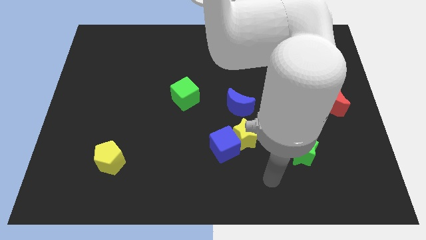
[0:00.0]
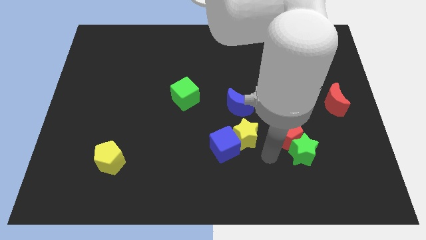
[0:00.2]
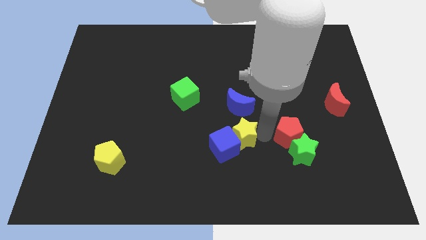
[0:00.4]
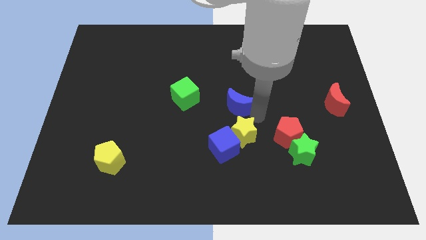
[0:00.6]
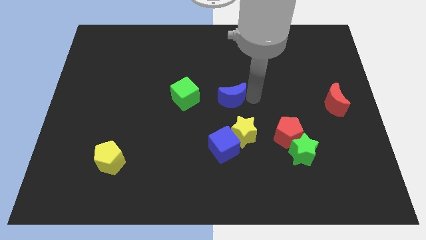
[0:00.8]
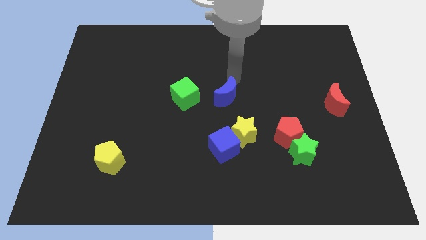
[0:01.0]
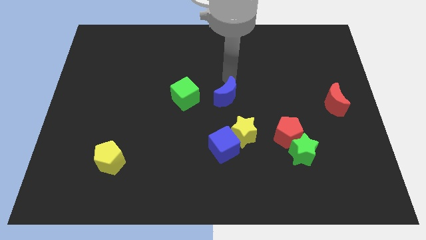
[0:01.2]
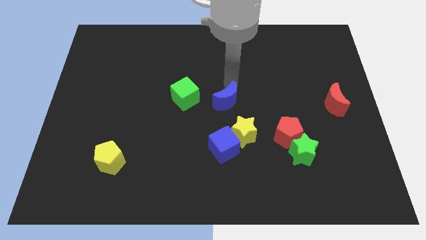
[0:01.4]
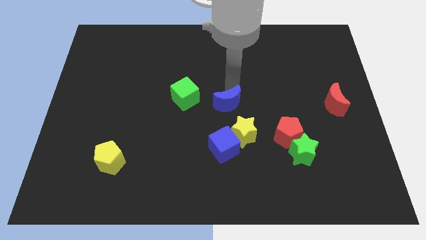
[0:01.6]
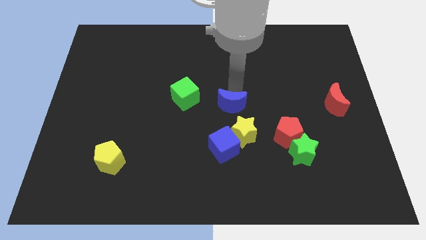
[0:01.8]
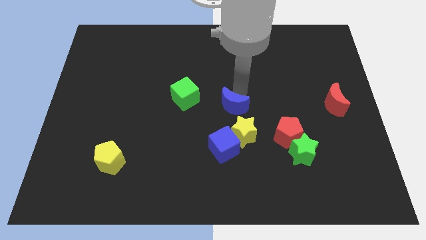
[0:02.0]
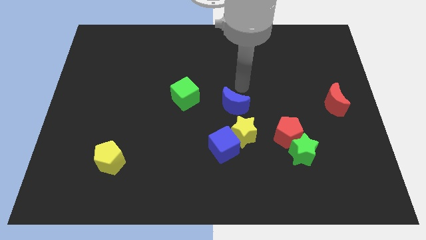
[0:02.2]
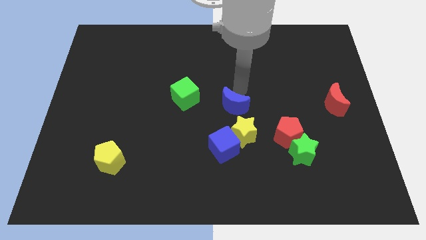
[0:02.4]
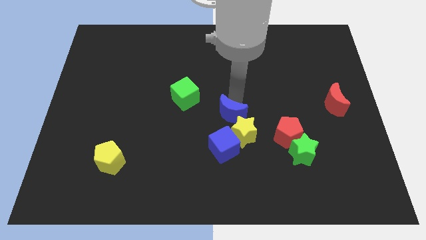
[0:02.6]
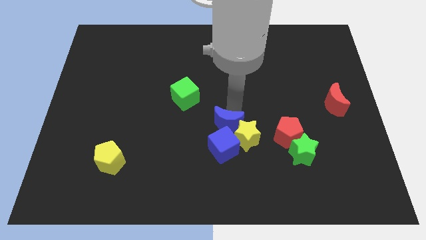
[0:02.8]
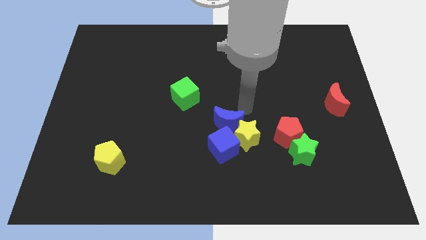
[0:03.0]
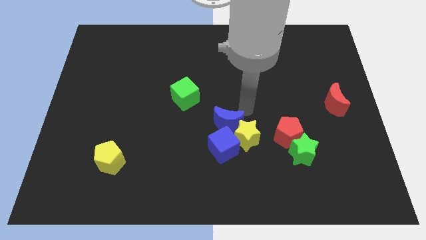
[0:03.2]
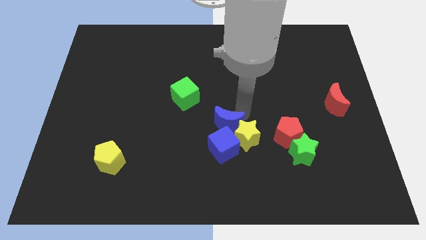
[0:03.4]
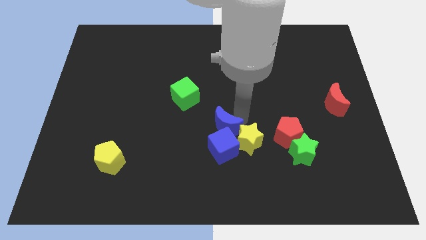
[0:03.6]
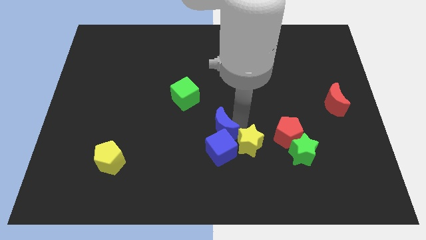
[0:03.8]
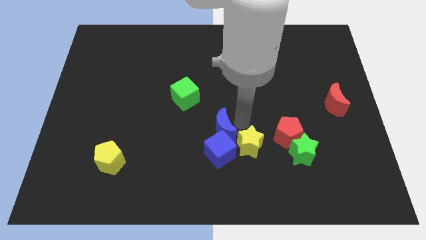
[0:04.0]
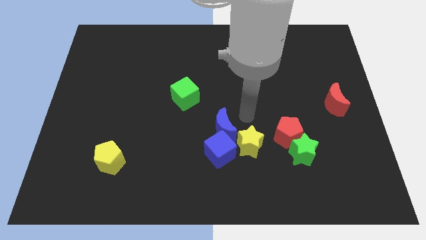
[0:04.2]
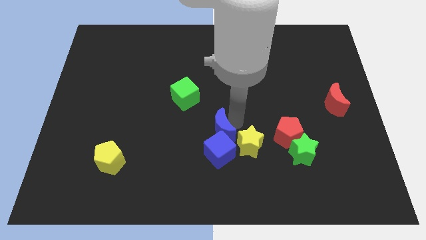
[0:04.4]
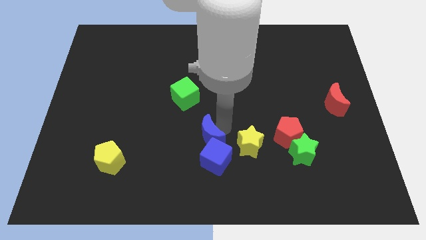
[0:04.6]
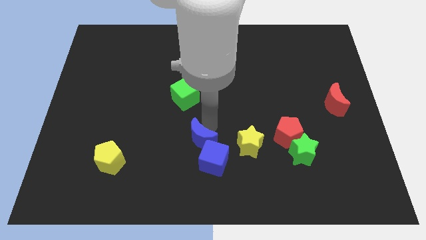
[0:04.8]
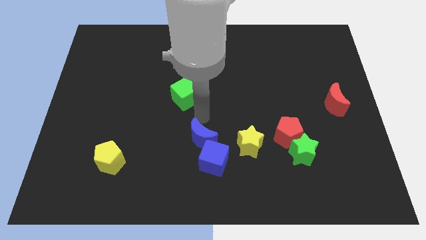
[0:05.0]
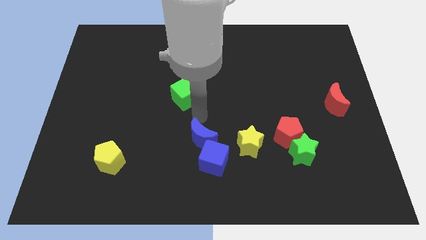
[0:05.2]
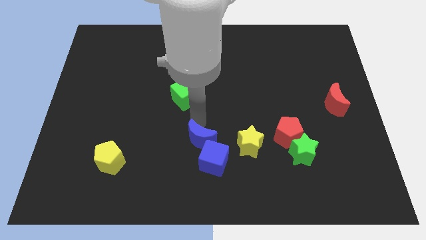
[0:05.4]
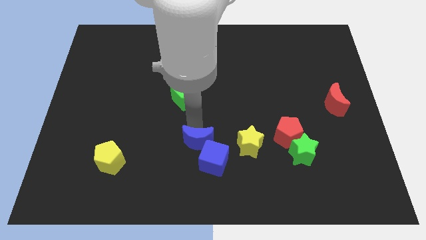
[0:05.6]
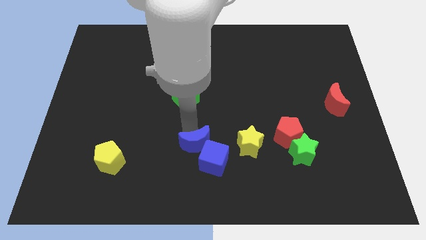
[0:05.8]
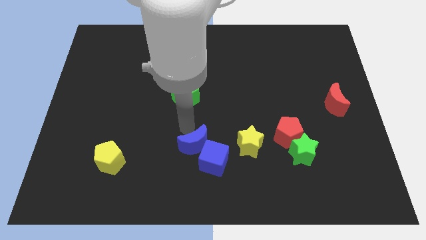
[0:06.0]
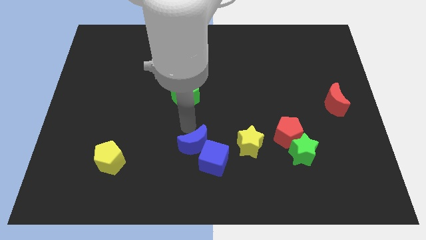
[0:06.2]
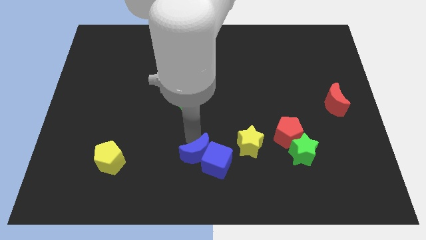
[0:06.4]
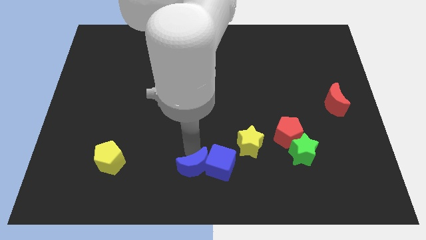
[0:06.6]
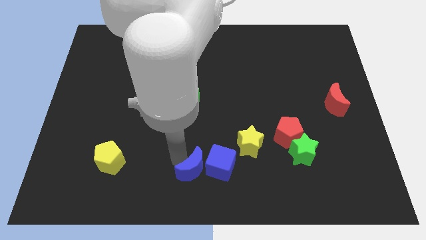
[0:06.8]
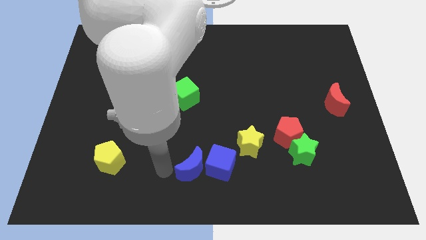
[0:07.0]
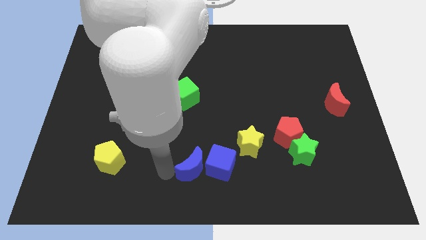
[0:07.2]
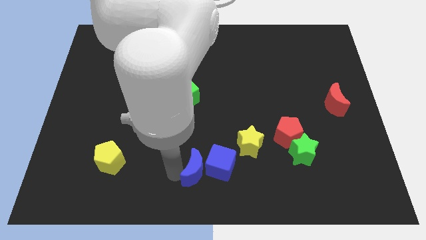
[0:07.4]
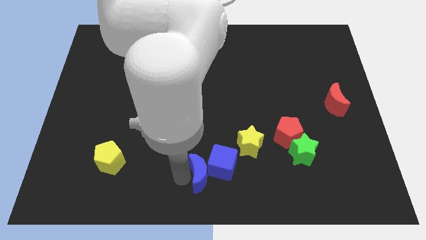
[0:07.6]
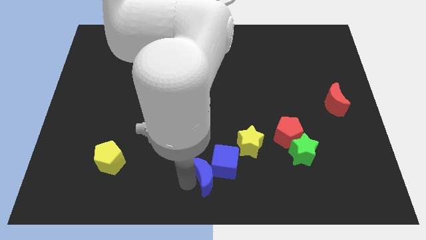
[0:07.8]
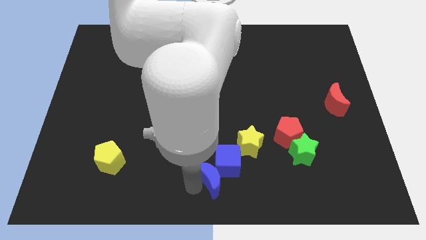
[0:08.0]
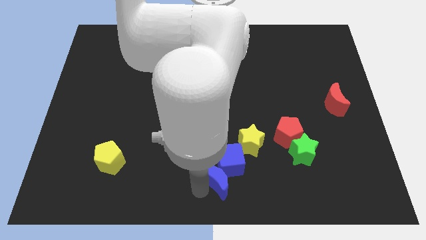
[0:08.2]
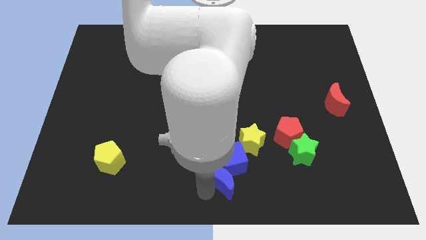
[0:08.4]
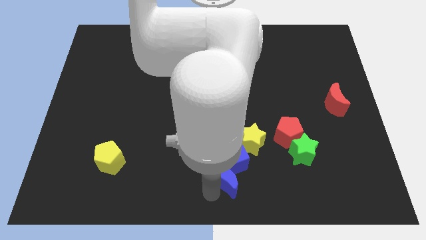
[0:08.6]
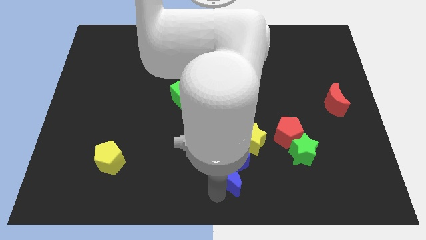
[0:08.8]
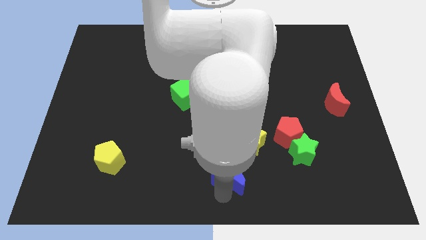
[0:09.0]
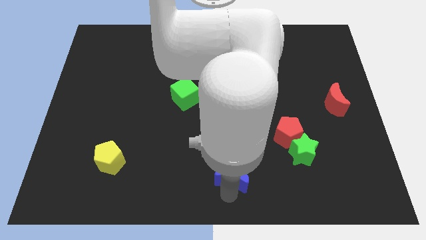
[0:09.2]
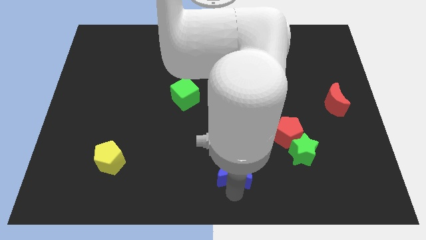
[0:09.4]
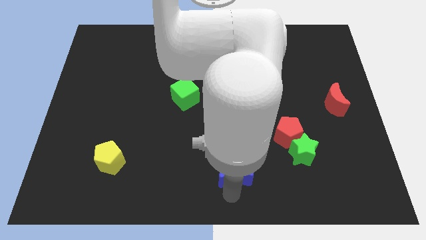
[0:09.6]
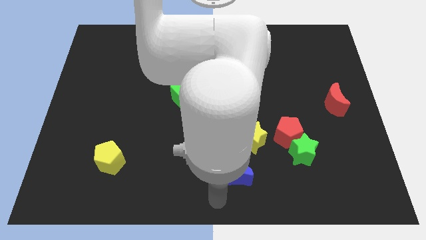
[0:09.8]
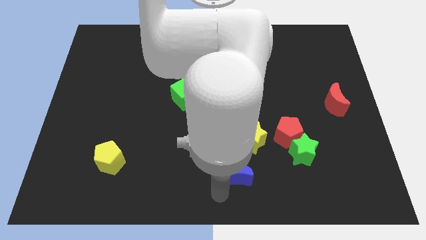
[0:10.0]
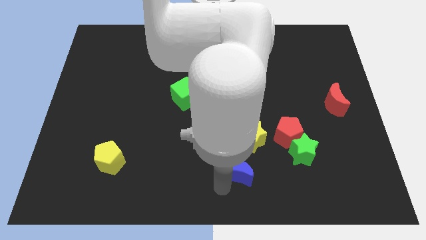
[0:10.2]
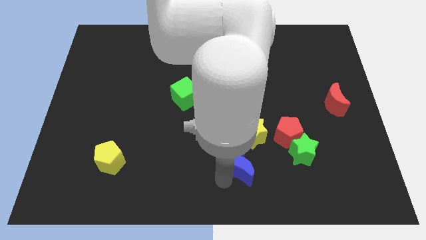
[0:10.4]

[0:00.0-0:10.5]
move the blue moon to the left of the green star
